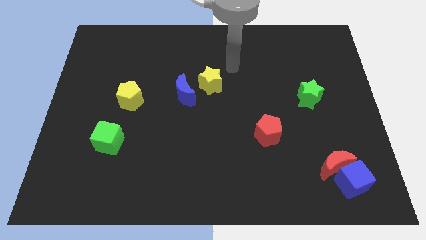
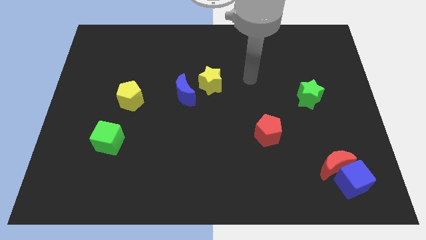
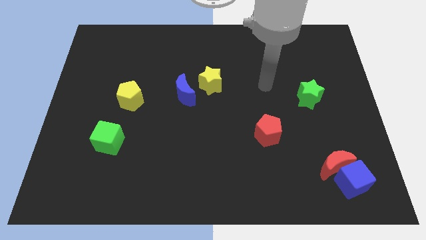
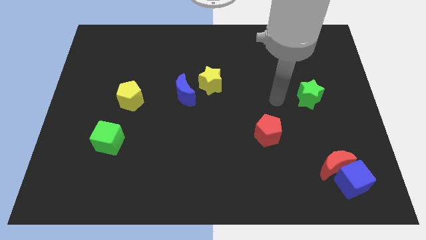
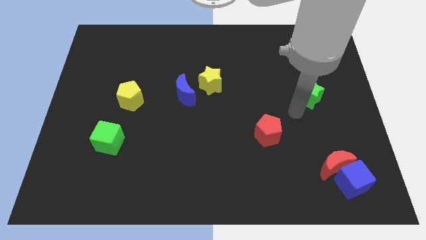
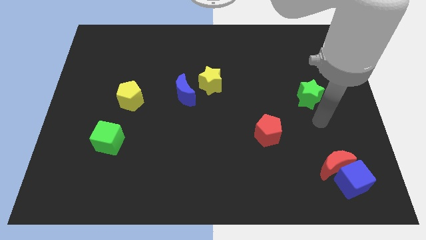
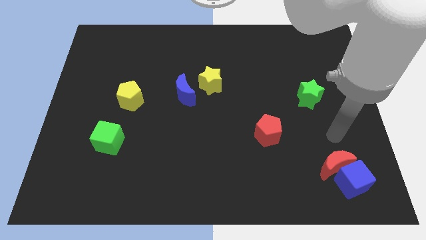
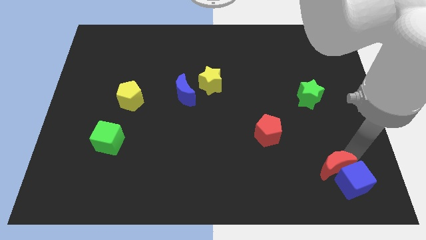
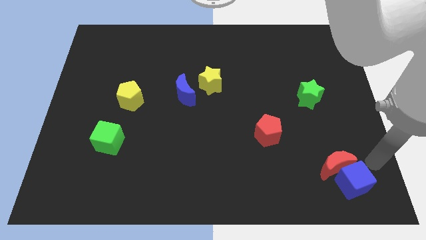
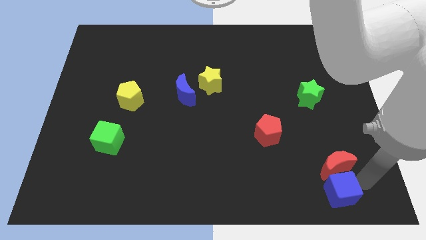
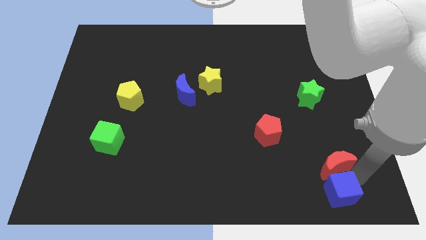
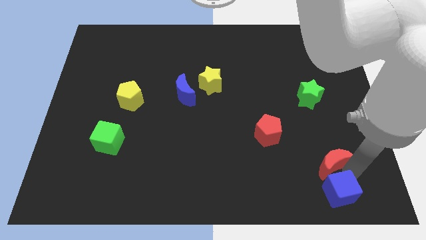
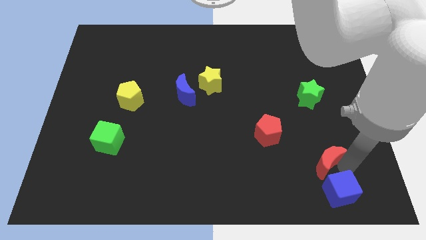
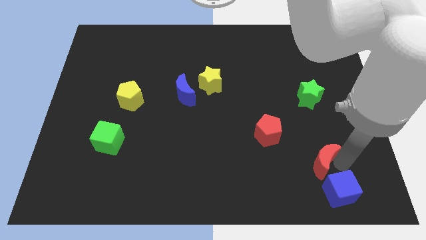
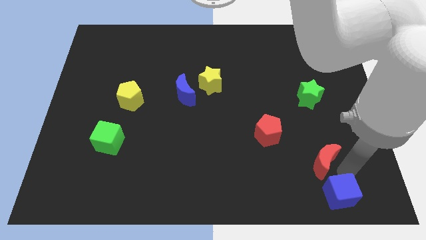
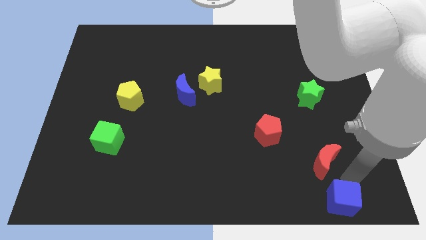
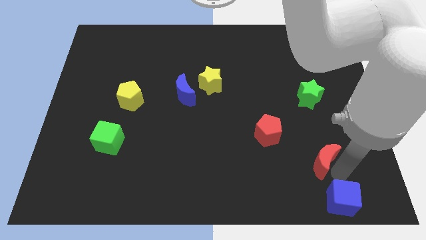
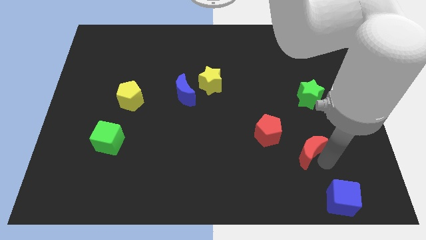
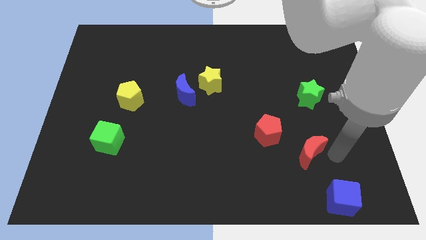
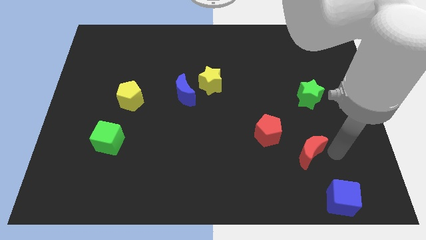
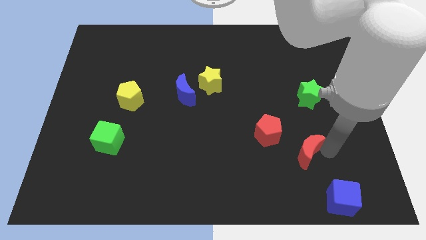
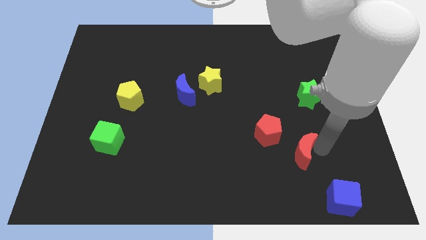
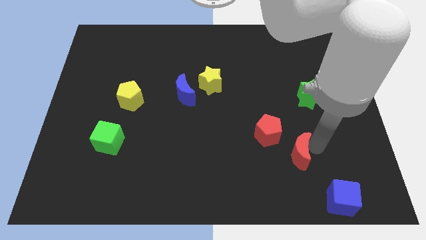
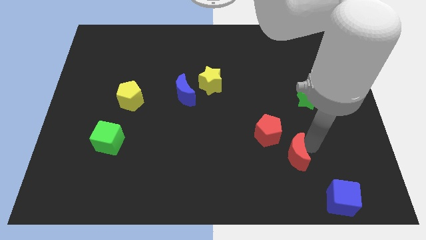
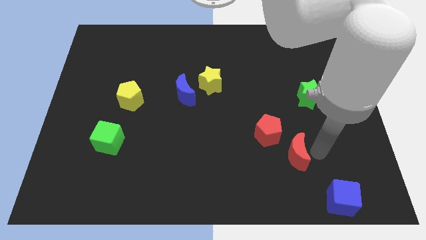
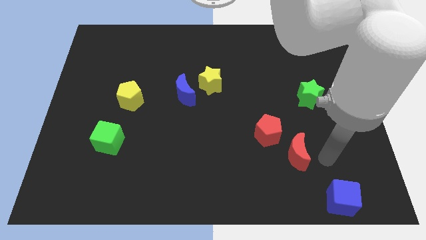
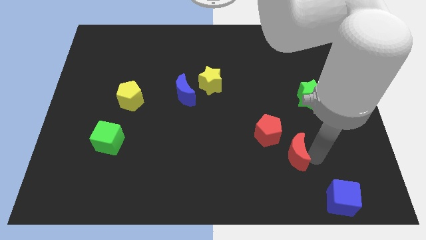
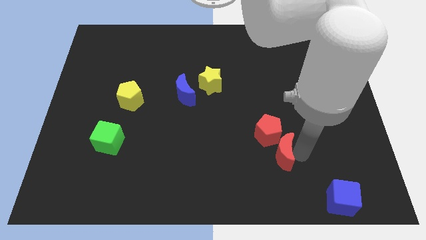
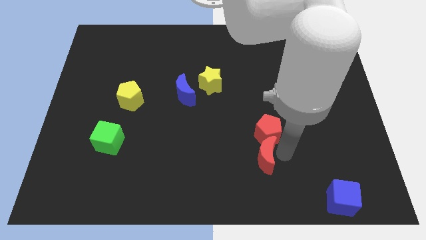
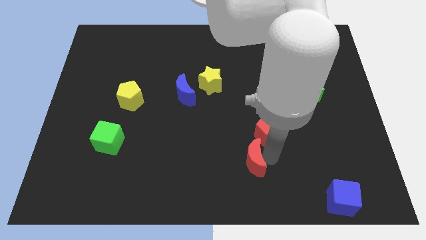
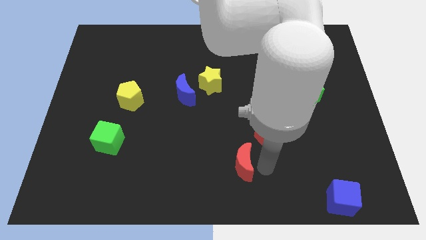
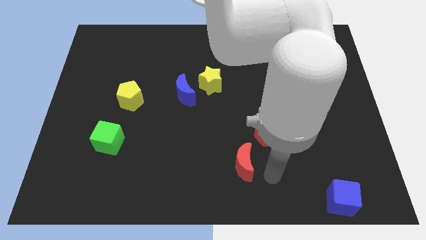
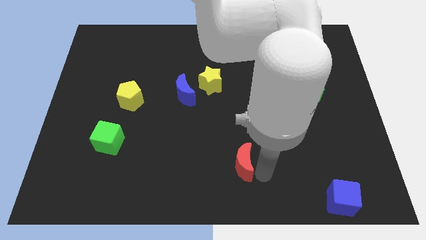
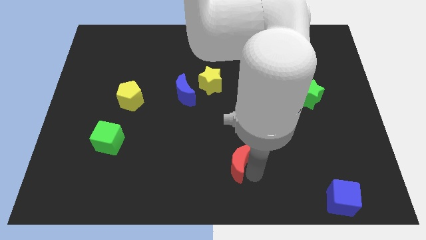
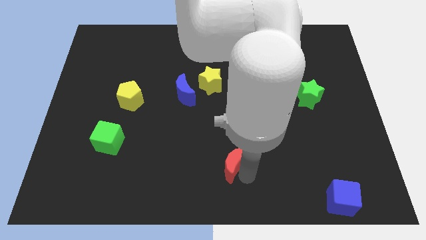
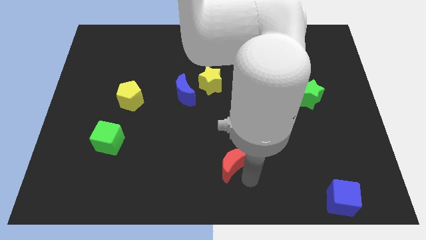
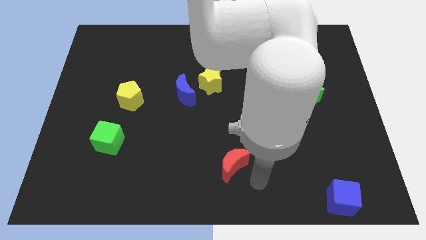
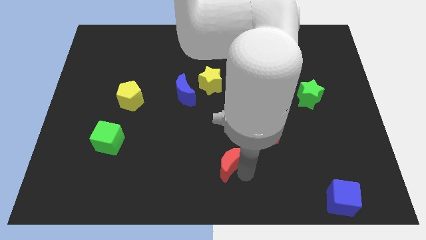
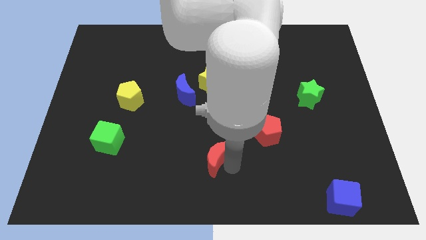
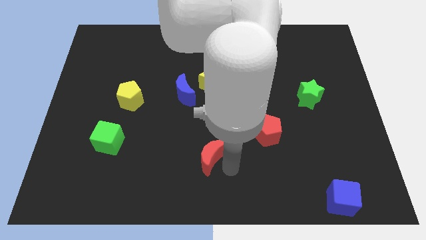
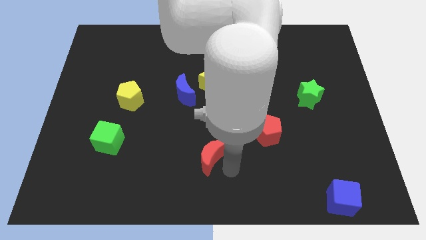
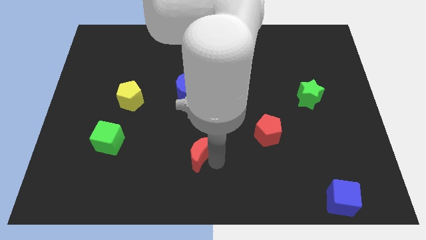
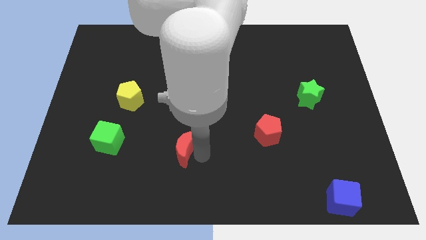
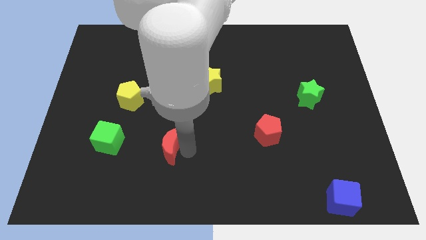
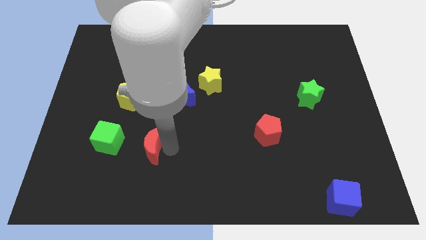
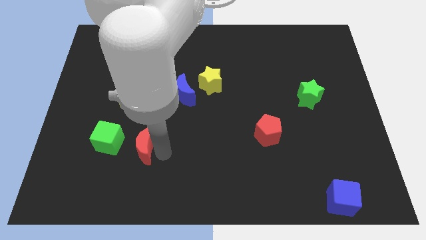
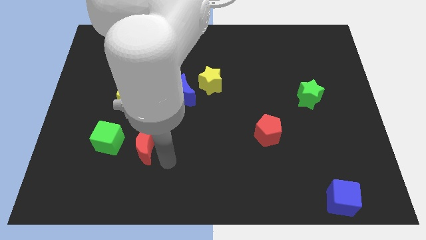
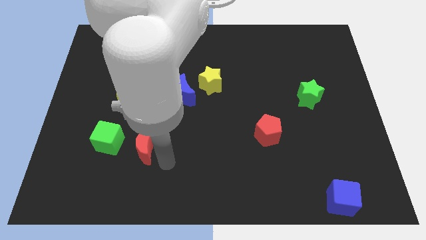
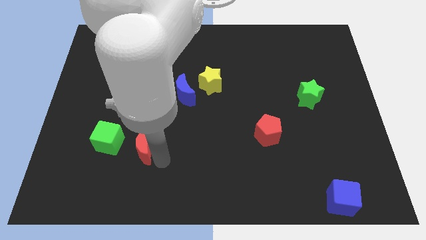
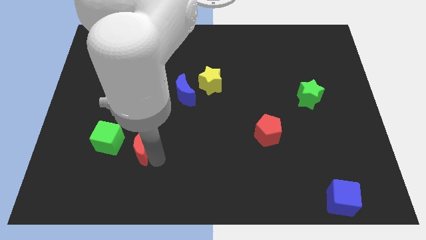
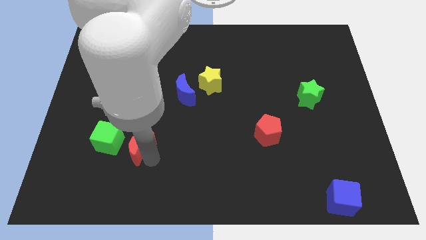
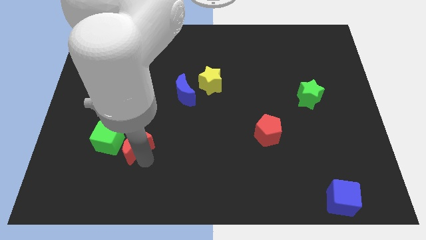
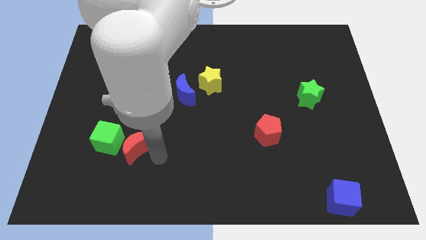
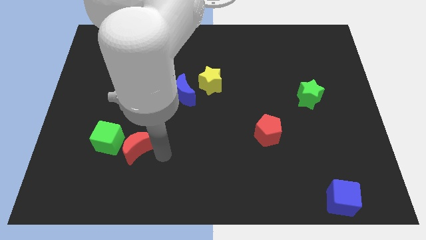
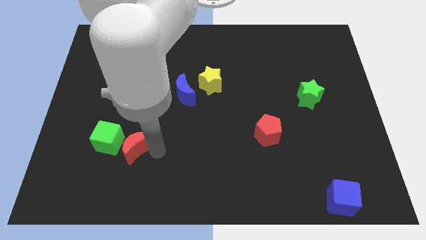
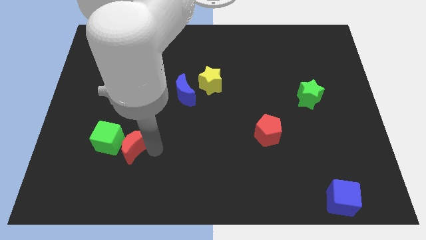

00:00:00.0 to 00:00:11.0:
put the red moon to the green cube

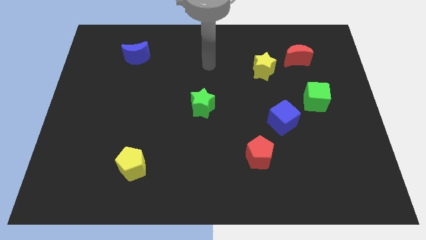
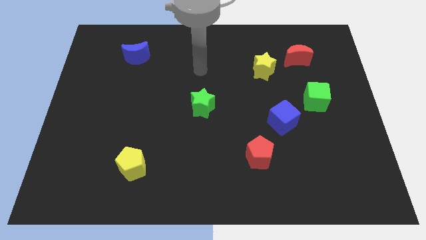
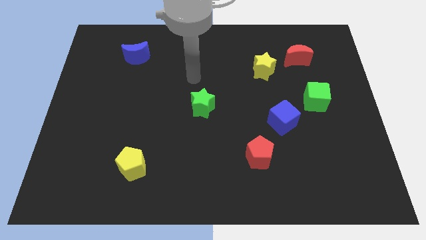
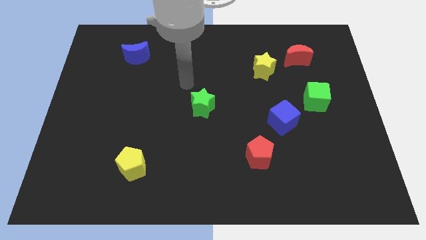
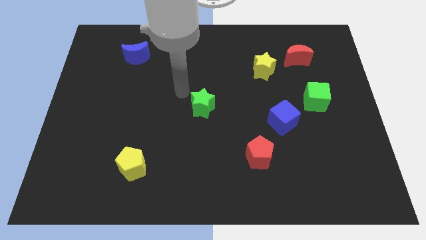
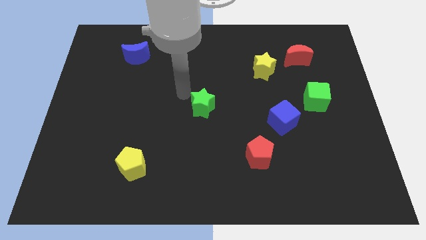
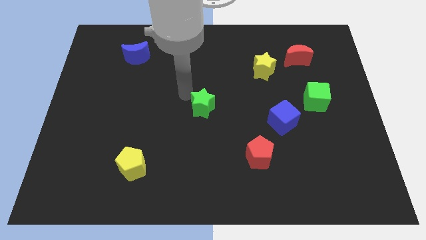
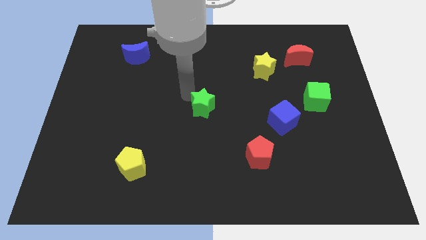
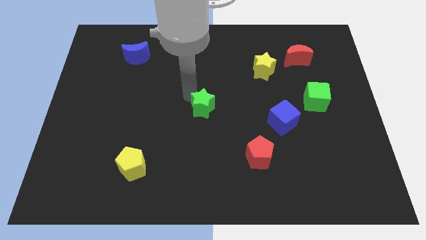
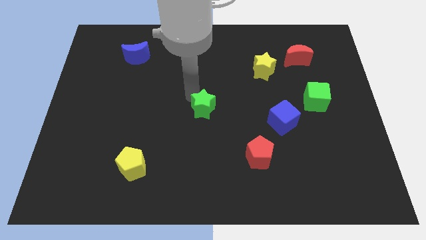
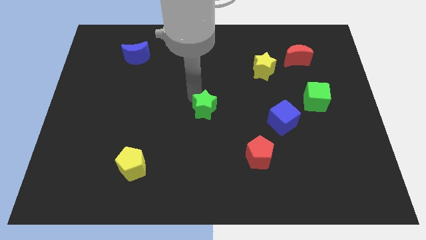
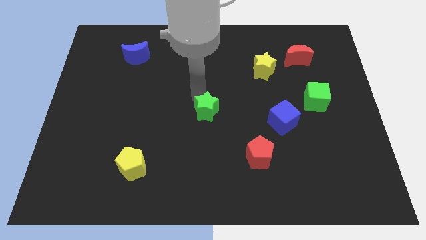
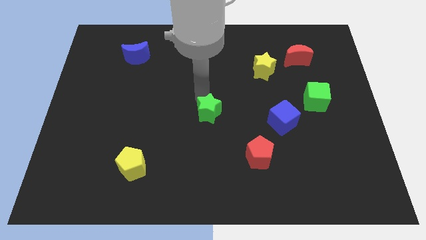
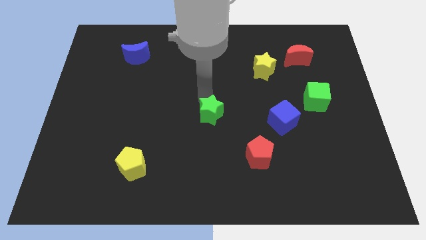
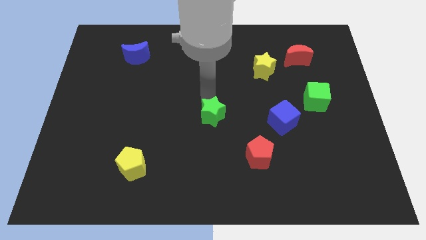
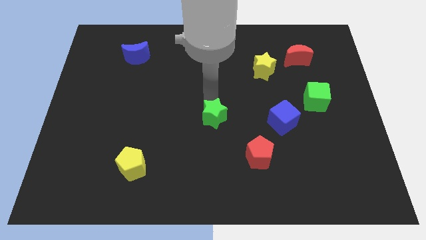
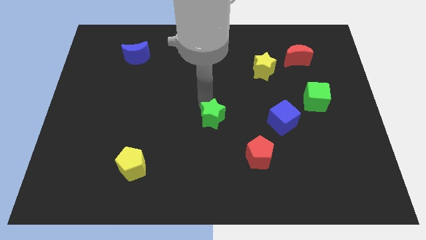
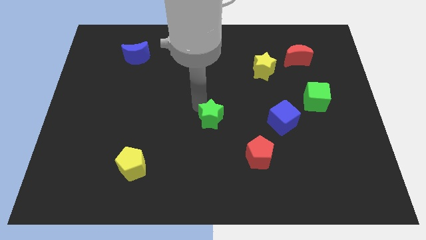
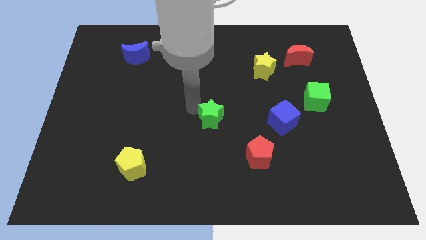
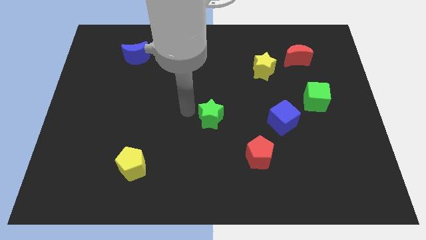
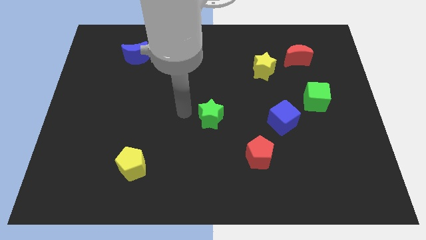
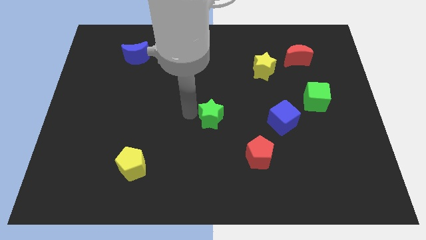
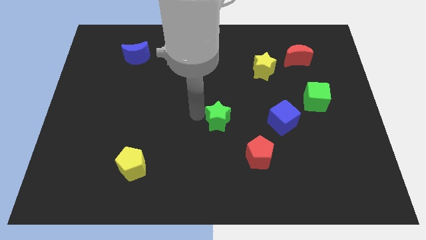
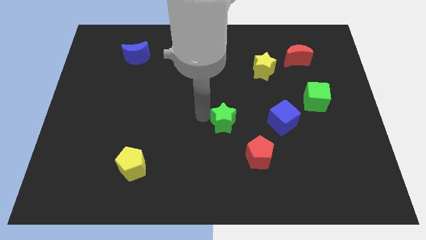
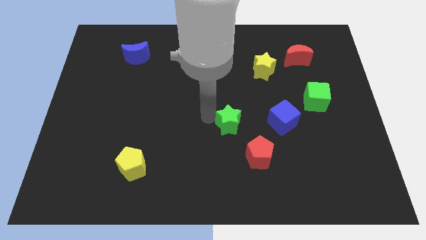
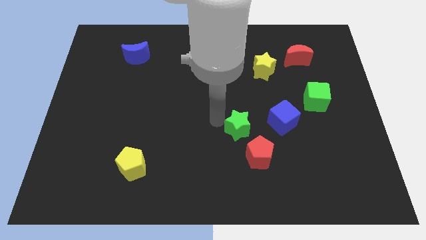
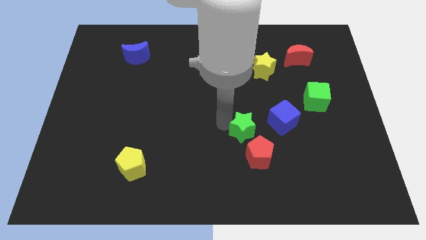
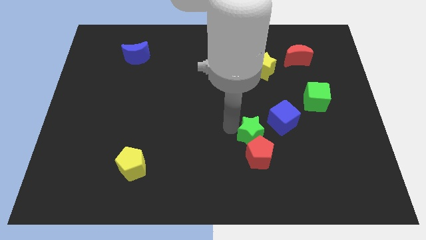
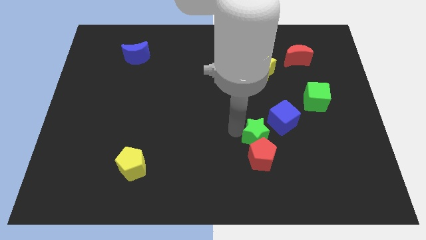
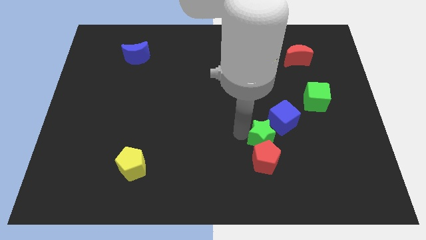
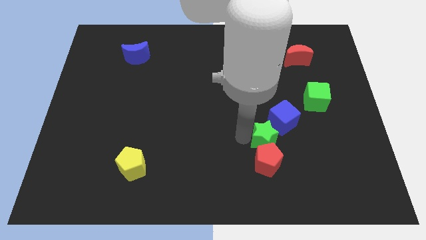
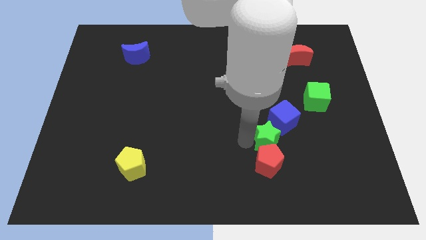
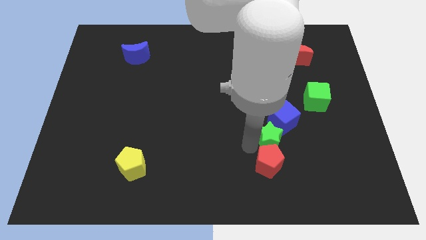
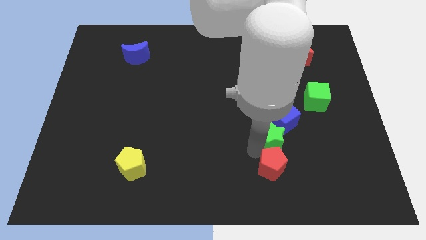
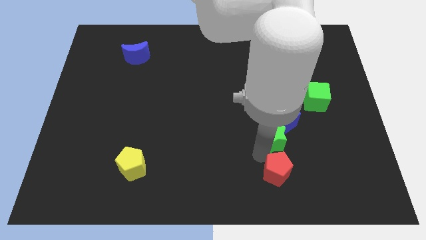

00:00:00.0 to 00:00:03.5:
put the green star next to the blue cube
